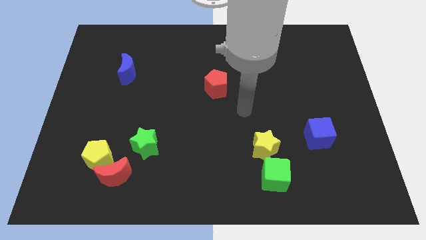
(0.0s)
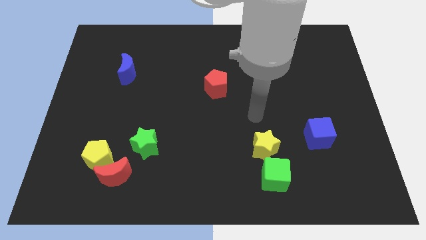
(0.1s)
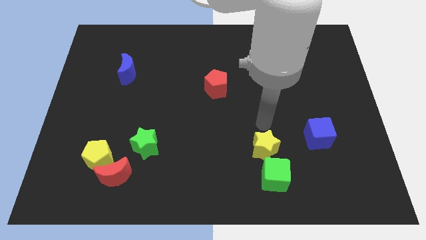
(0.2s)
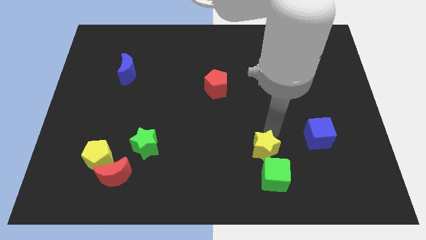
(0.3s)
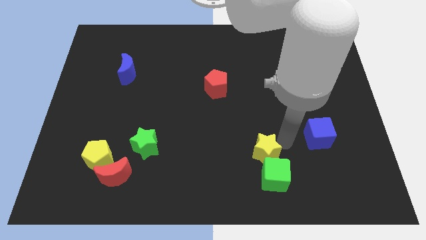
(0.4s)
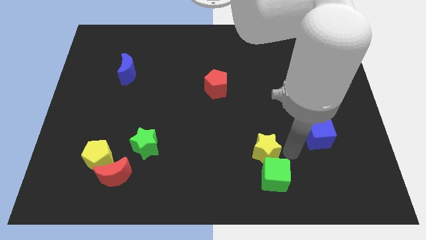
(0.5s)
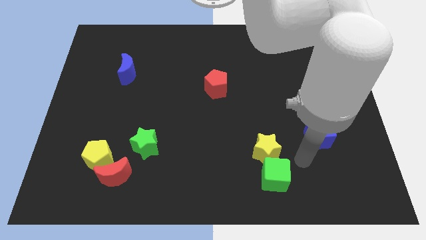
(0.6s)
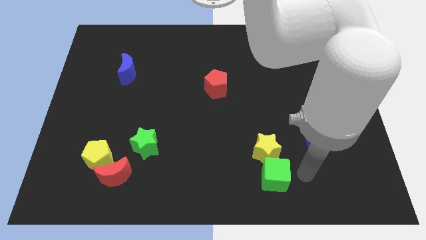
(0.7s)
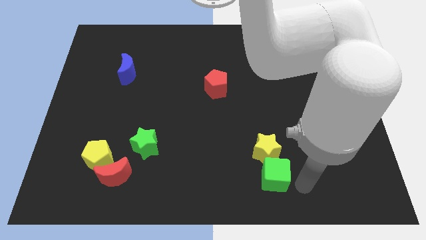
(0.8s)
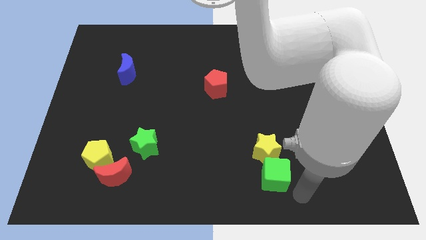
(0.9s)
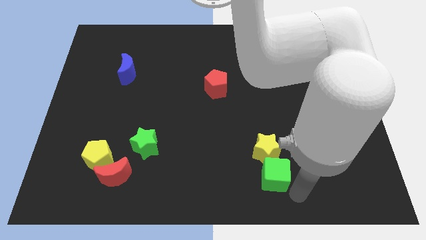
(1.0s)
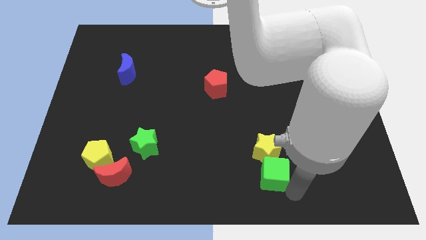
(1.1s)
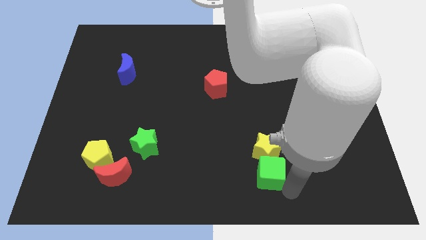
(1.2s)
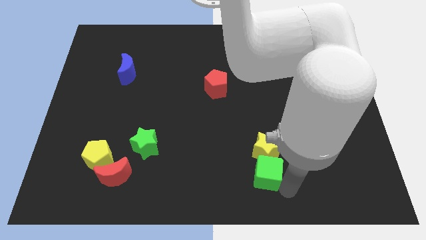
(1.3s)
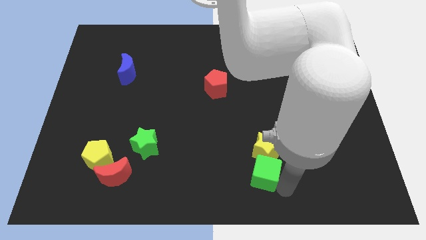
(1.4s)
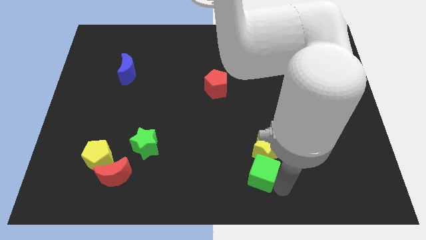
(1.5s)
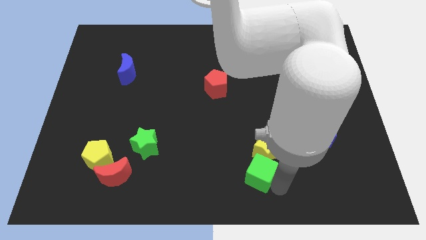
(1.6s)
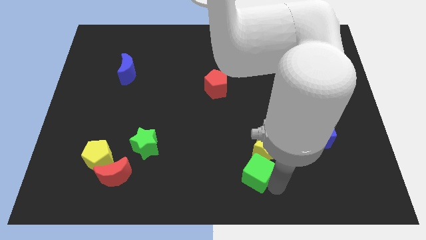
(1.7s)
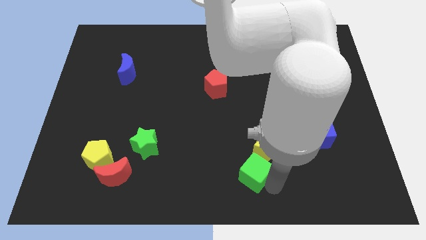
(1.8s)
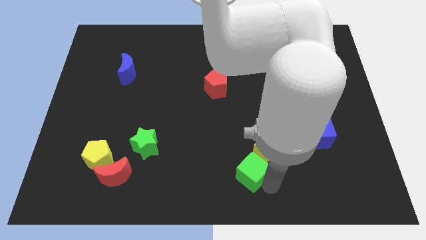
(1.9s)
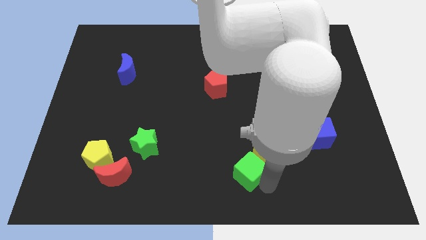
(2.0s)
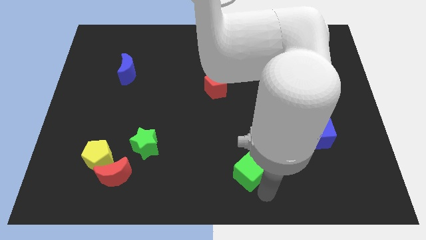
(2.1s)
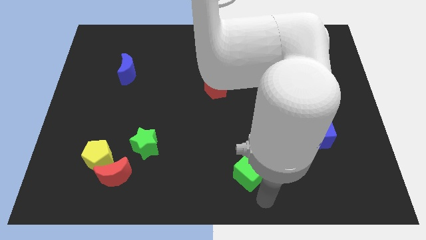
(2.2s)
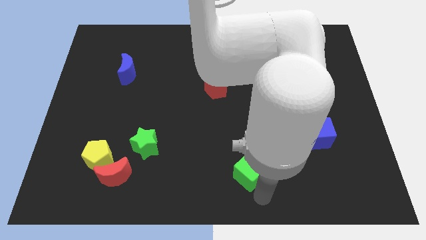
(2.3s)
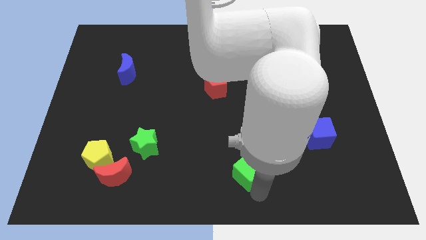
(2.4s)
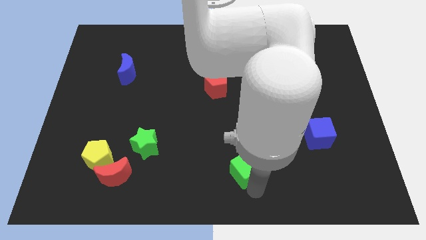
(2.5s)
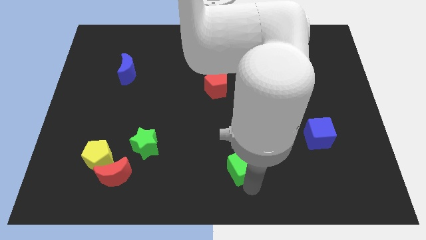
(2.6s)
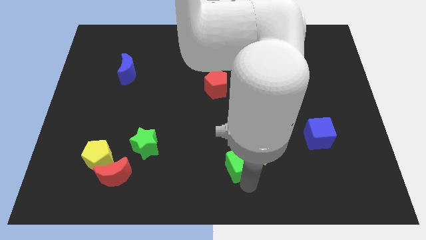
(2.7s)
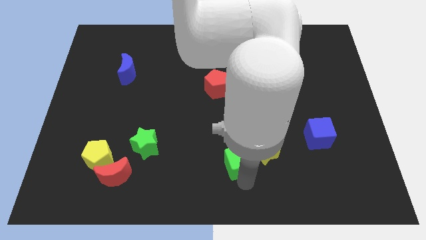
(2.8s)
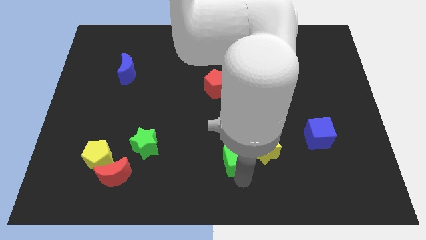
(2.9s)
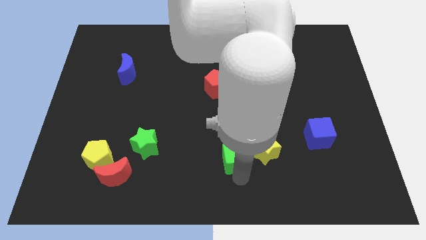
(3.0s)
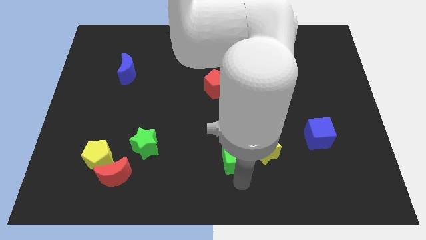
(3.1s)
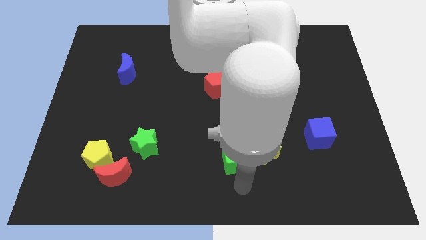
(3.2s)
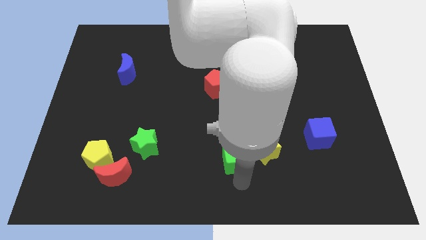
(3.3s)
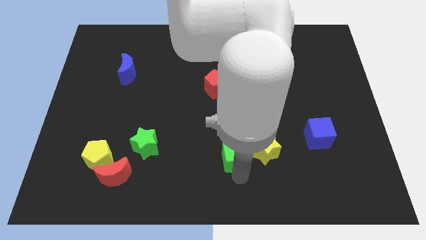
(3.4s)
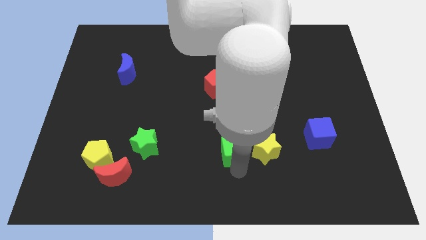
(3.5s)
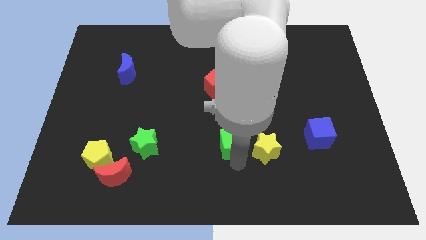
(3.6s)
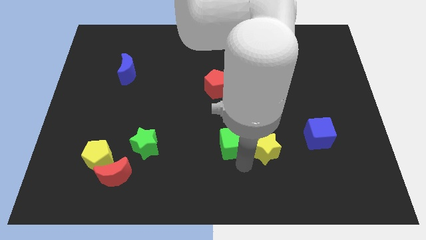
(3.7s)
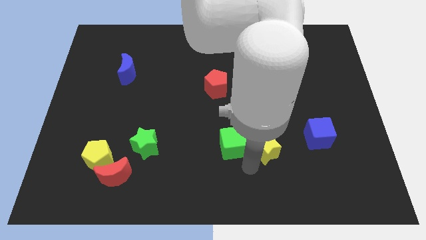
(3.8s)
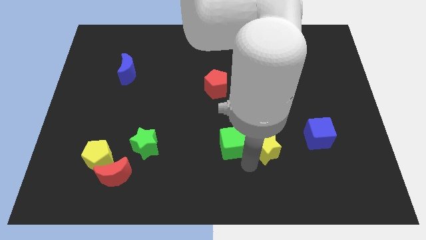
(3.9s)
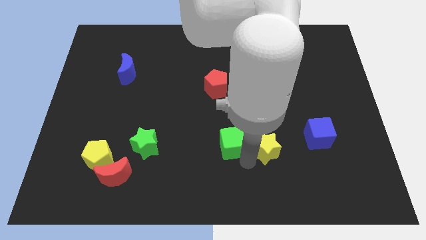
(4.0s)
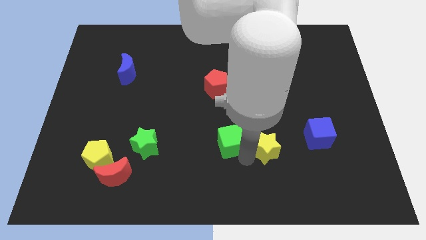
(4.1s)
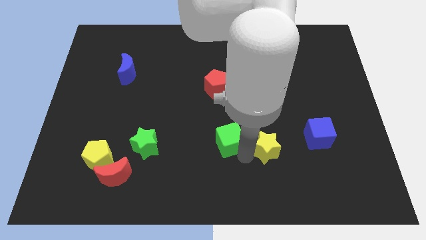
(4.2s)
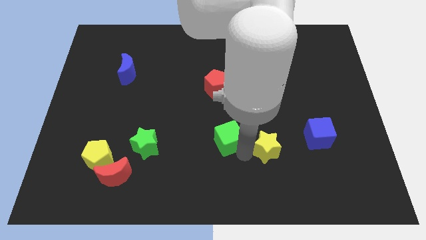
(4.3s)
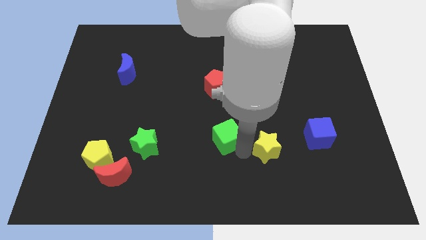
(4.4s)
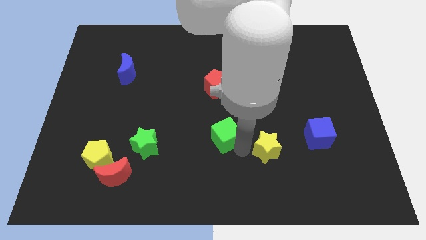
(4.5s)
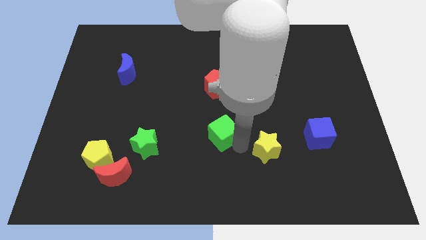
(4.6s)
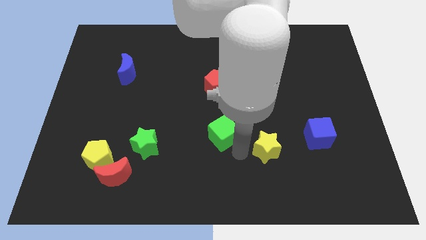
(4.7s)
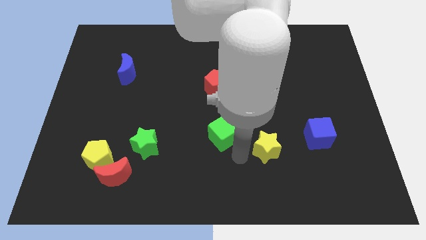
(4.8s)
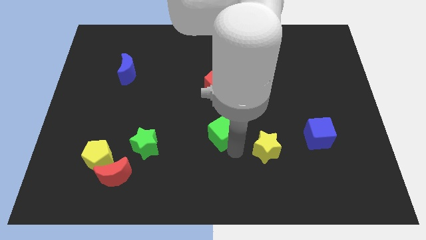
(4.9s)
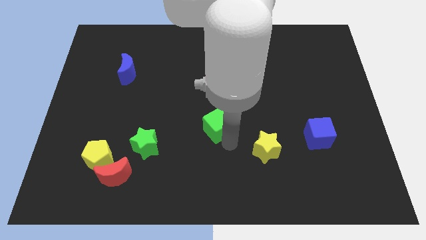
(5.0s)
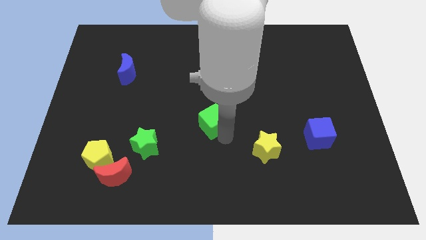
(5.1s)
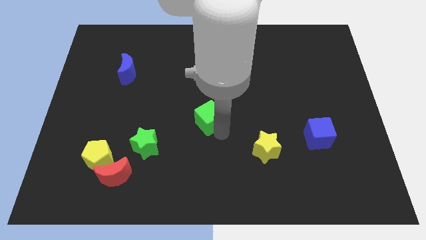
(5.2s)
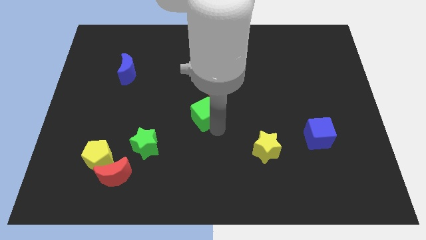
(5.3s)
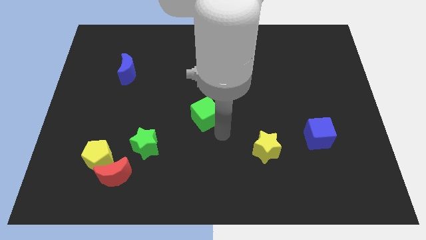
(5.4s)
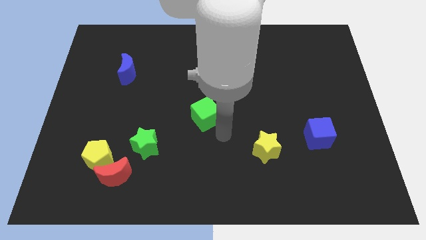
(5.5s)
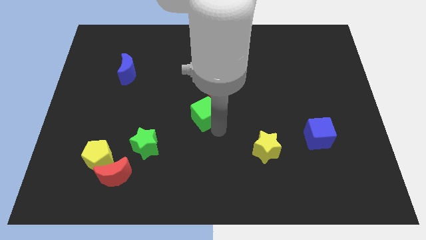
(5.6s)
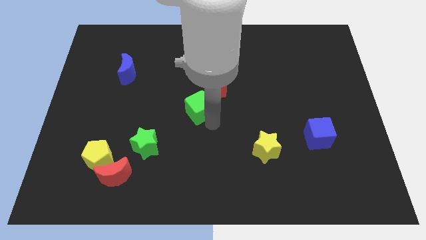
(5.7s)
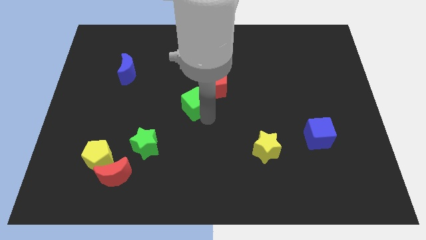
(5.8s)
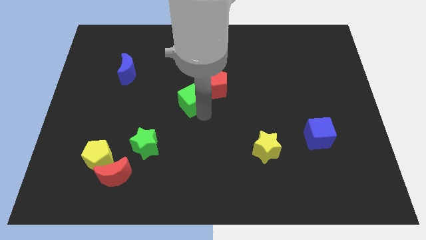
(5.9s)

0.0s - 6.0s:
slide the green cube to the left of the red pentagon

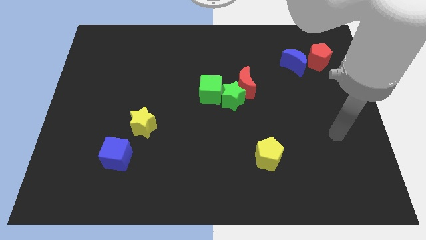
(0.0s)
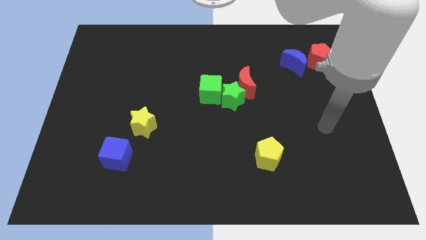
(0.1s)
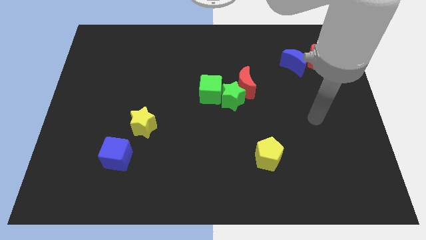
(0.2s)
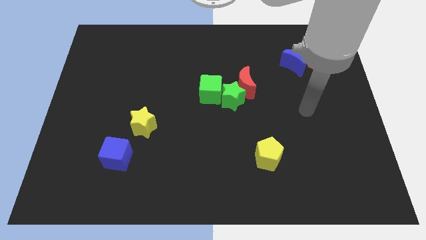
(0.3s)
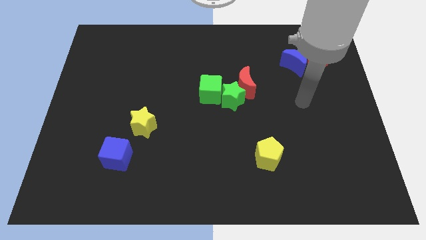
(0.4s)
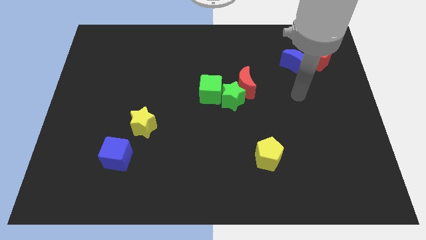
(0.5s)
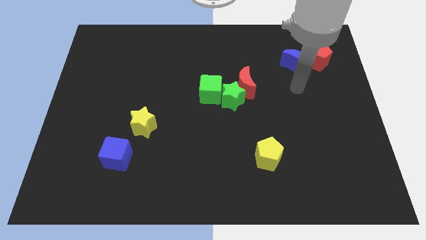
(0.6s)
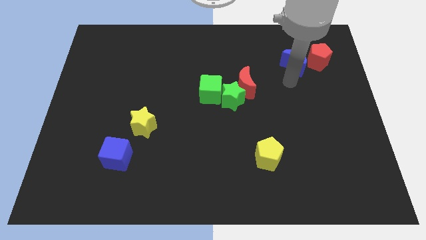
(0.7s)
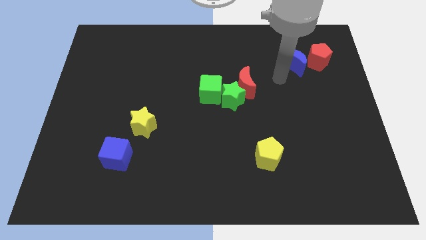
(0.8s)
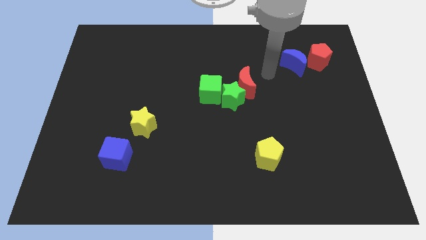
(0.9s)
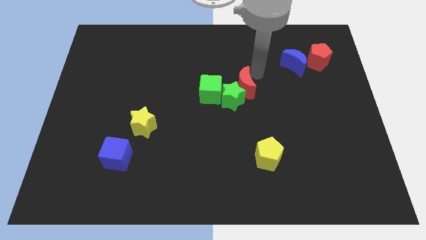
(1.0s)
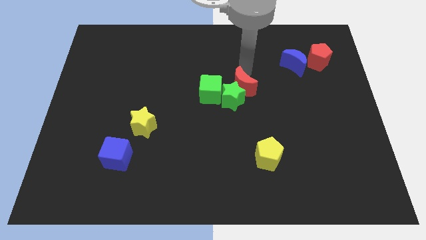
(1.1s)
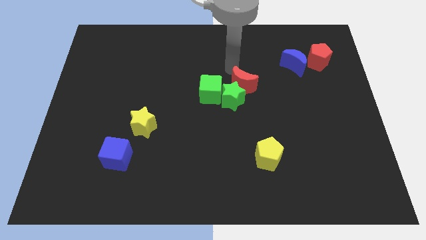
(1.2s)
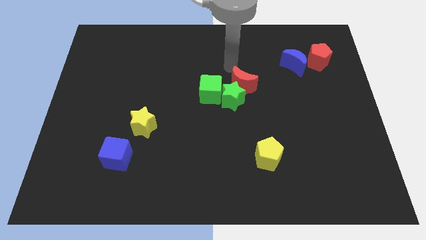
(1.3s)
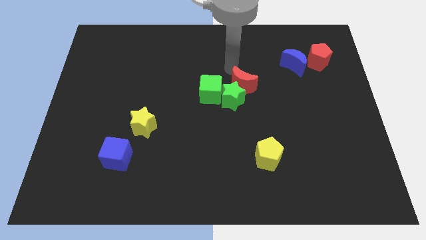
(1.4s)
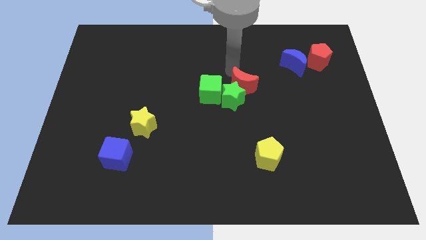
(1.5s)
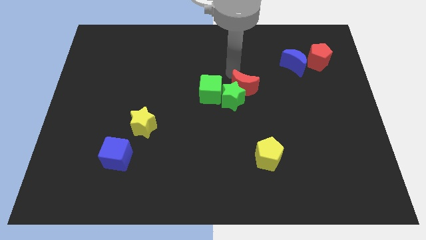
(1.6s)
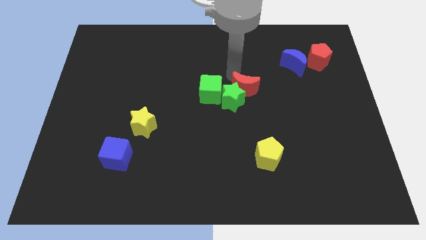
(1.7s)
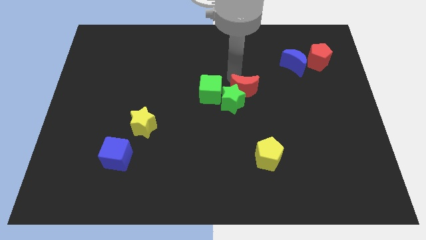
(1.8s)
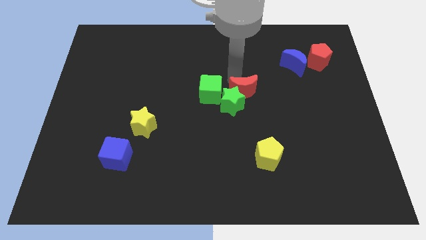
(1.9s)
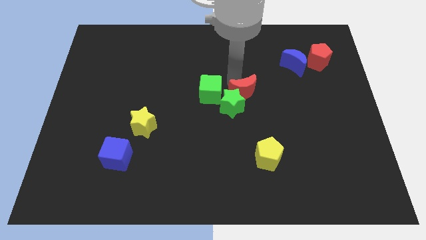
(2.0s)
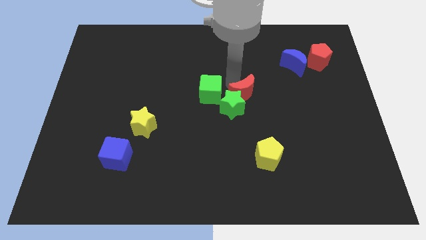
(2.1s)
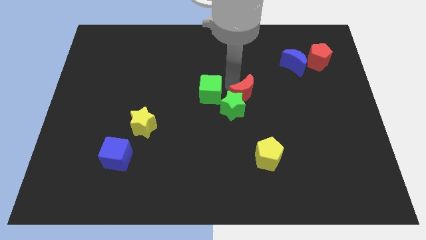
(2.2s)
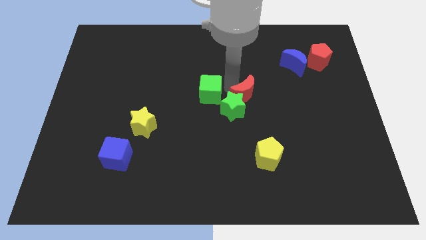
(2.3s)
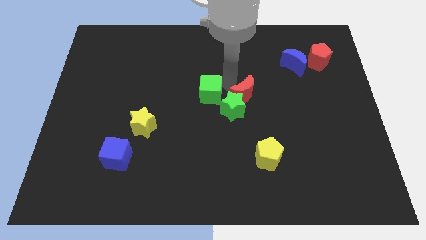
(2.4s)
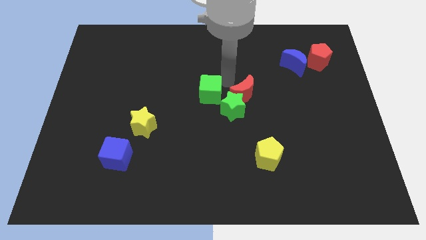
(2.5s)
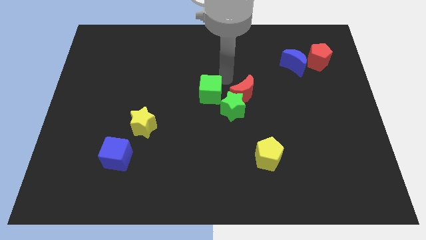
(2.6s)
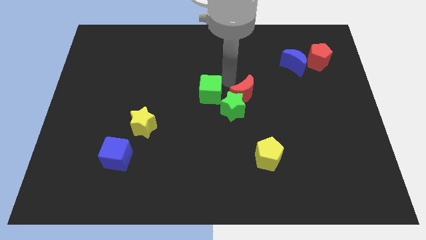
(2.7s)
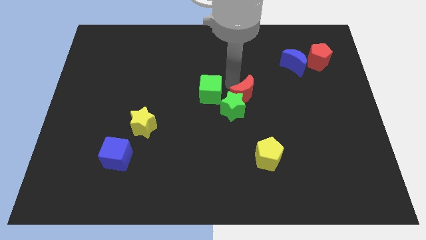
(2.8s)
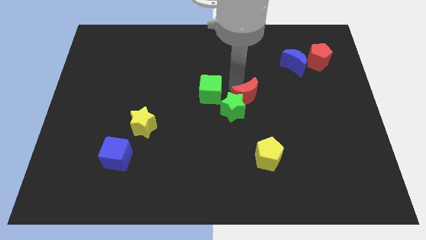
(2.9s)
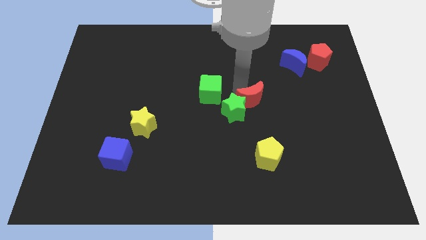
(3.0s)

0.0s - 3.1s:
slide the red moon above the yellow pentagon
